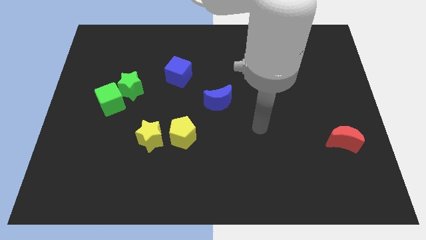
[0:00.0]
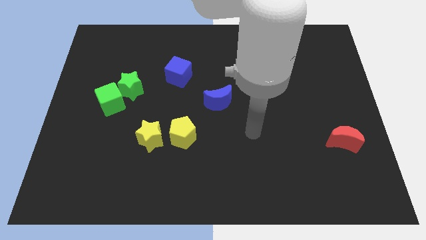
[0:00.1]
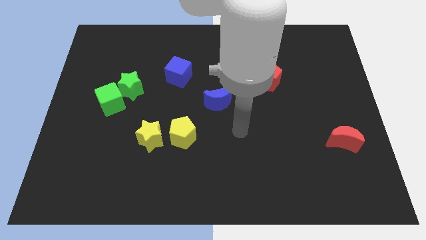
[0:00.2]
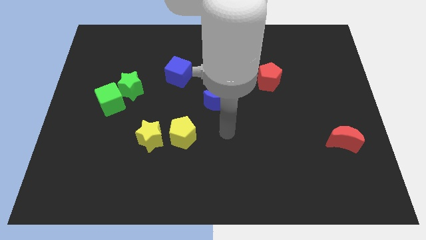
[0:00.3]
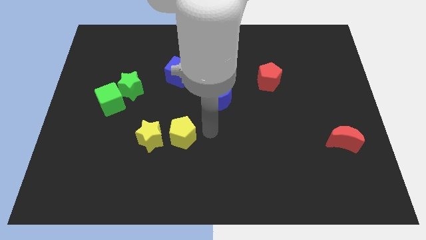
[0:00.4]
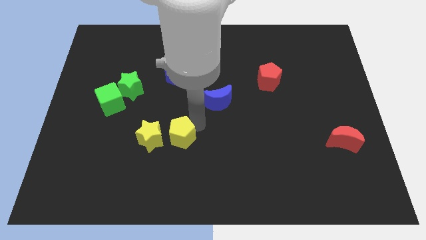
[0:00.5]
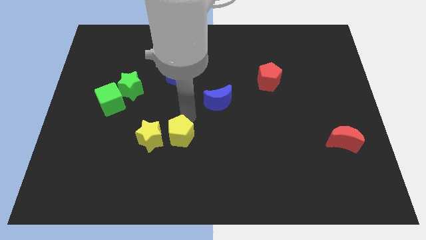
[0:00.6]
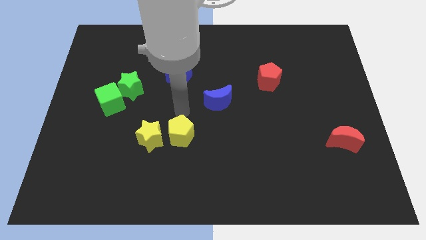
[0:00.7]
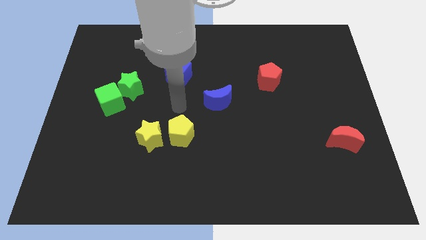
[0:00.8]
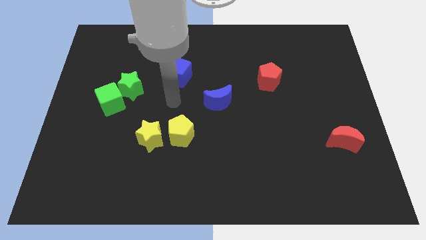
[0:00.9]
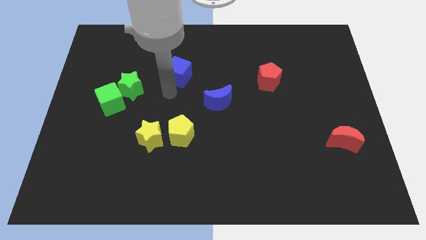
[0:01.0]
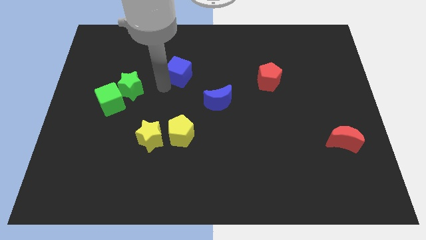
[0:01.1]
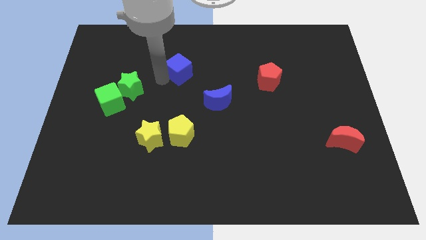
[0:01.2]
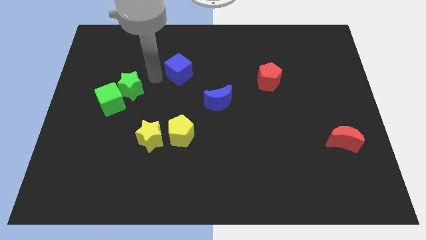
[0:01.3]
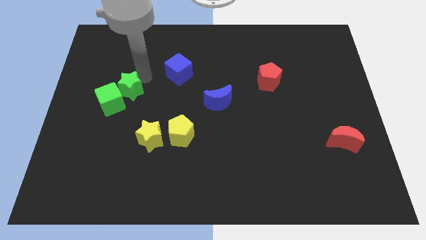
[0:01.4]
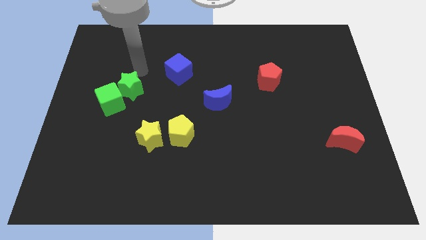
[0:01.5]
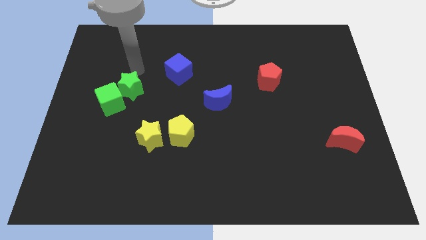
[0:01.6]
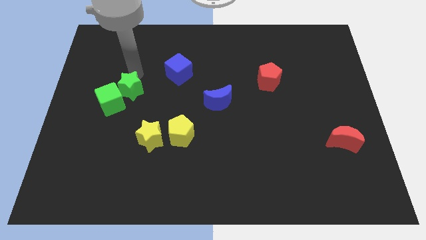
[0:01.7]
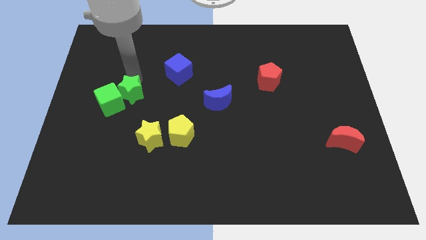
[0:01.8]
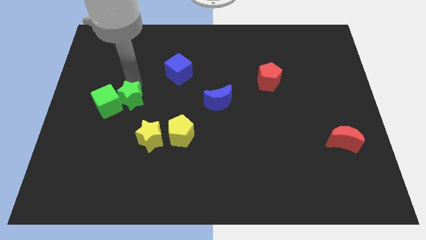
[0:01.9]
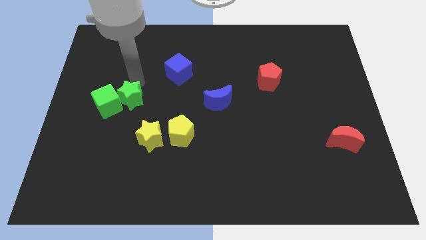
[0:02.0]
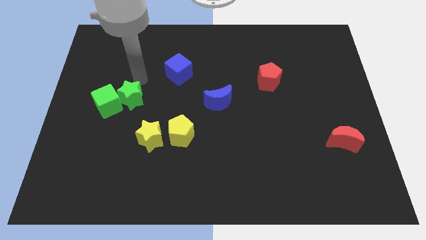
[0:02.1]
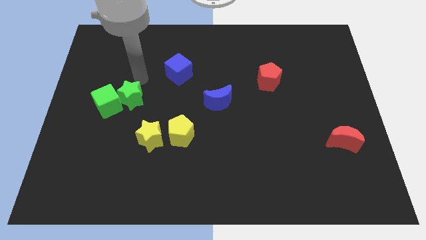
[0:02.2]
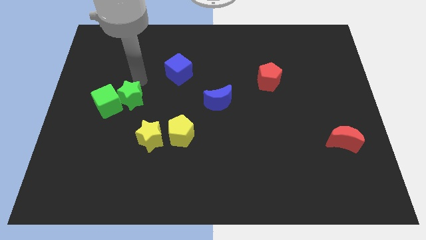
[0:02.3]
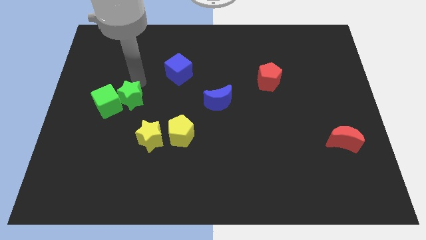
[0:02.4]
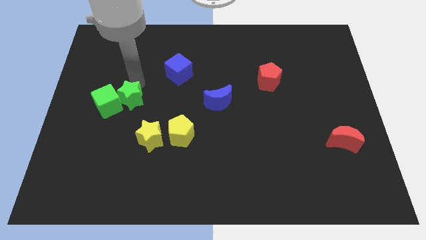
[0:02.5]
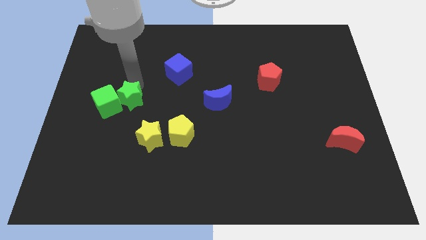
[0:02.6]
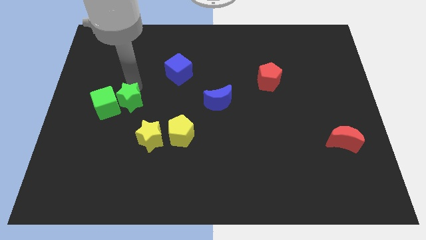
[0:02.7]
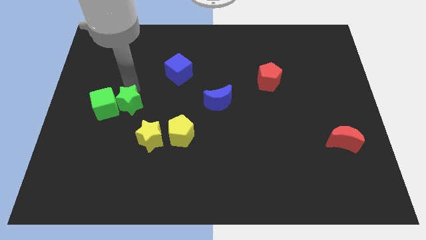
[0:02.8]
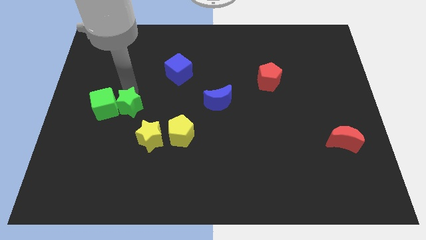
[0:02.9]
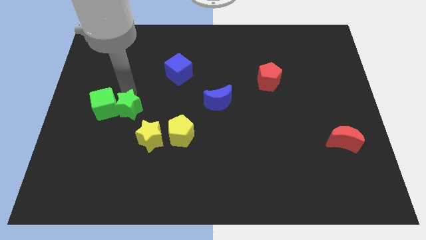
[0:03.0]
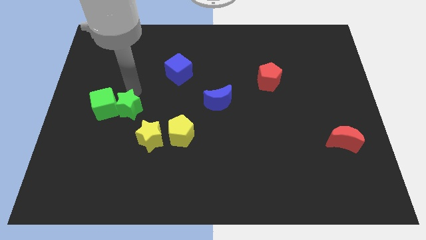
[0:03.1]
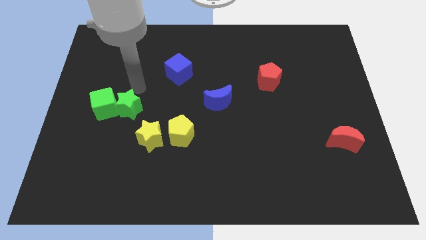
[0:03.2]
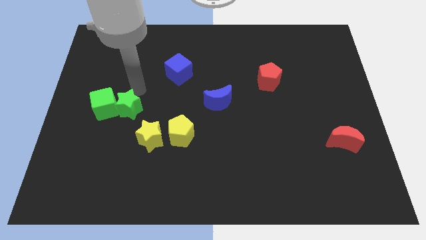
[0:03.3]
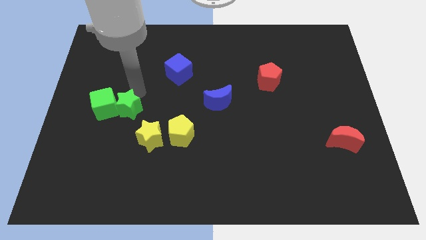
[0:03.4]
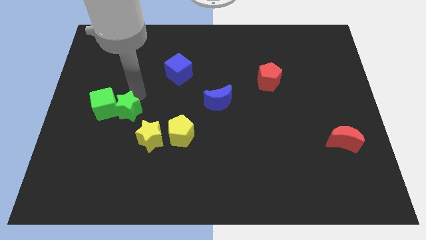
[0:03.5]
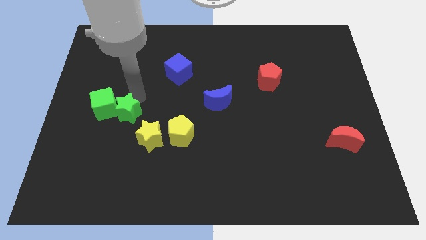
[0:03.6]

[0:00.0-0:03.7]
slightly push the green star downwards

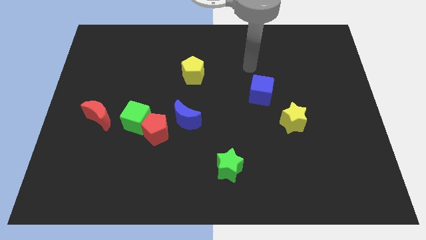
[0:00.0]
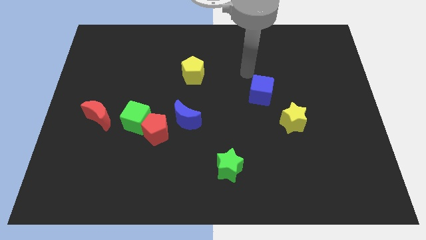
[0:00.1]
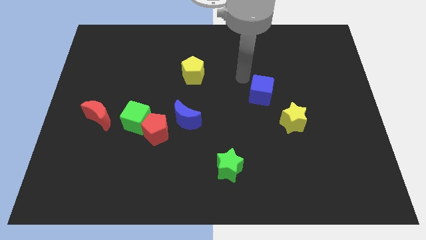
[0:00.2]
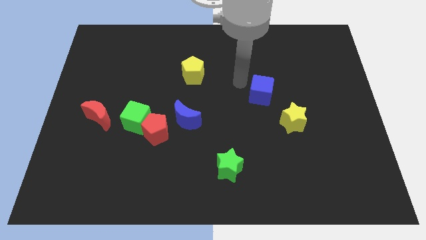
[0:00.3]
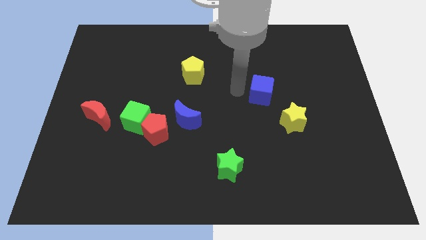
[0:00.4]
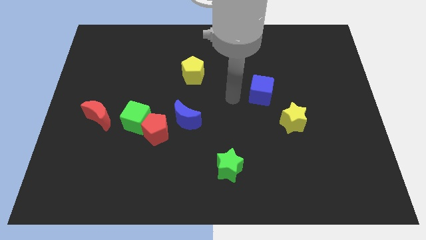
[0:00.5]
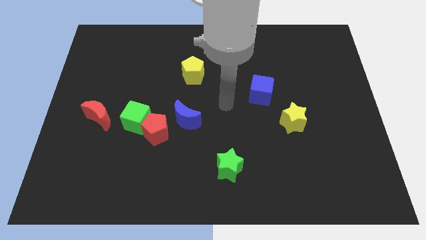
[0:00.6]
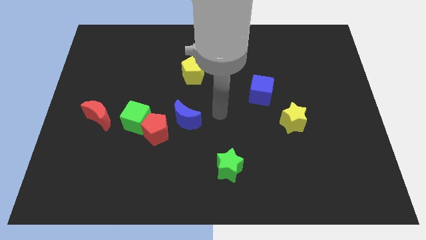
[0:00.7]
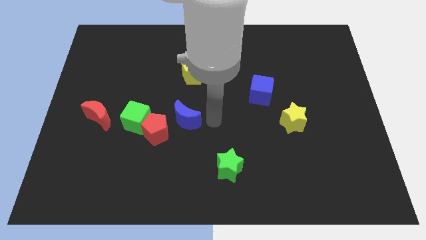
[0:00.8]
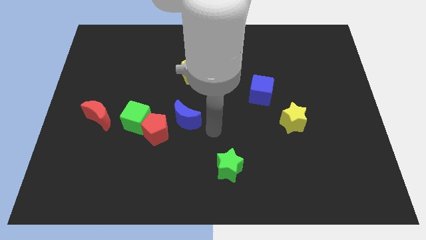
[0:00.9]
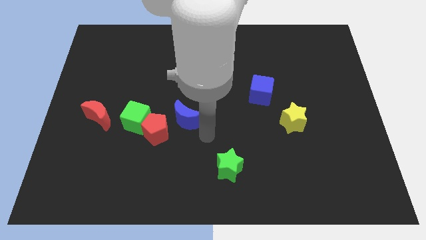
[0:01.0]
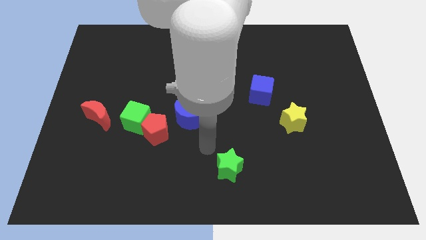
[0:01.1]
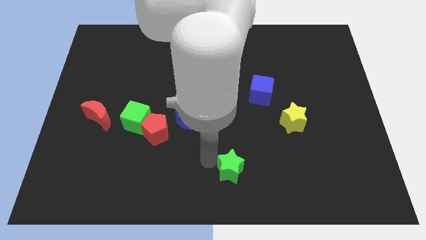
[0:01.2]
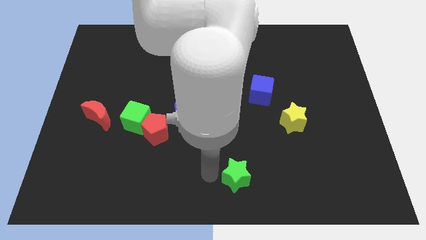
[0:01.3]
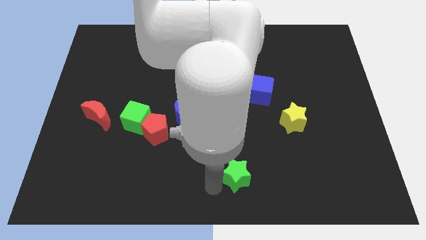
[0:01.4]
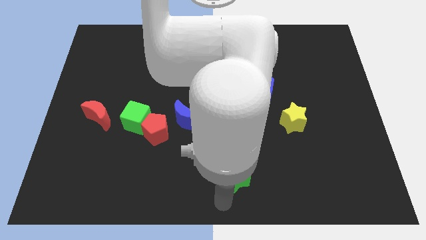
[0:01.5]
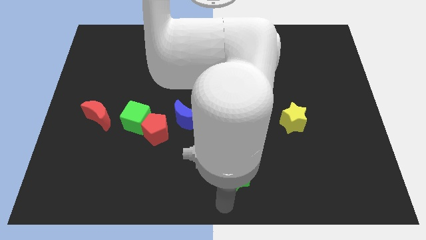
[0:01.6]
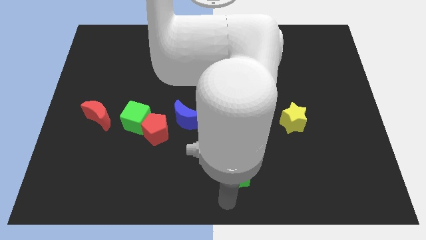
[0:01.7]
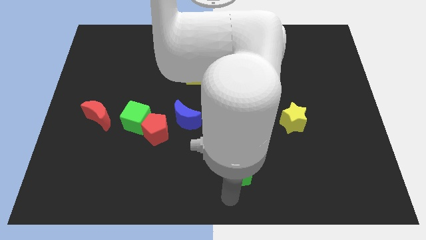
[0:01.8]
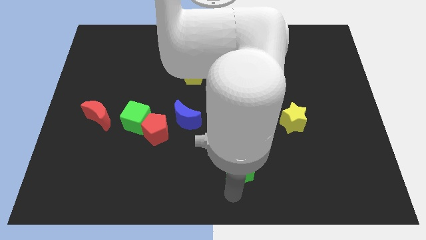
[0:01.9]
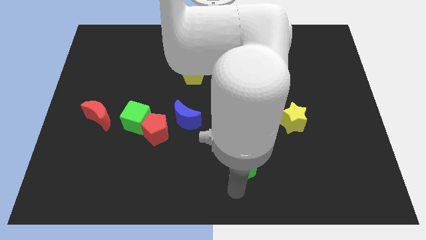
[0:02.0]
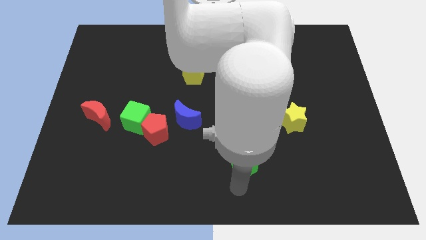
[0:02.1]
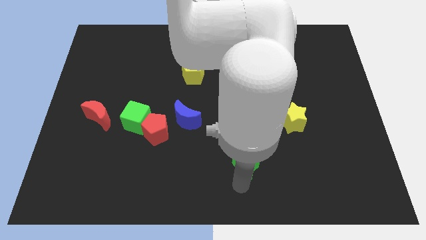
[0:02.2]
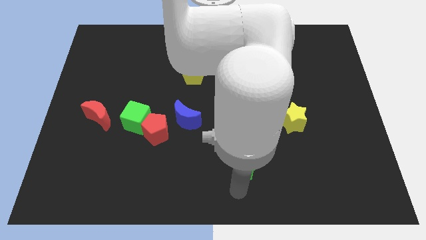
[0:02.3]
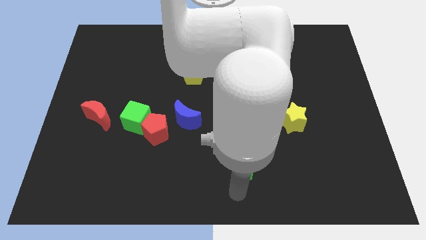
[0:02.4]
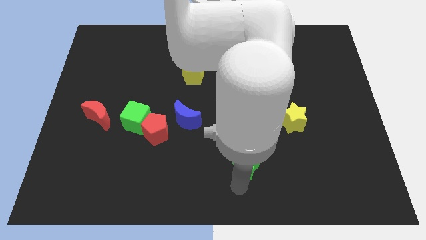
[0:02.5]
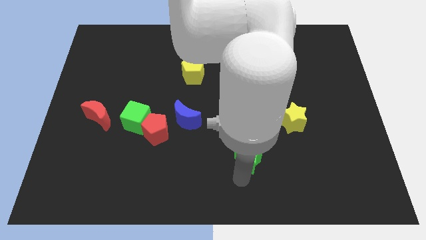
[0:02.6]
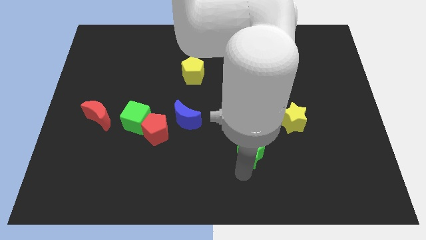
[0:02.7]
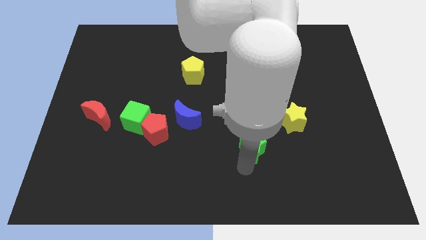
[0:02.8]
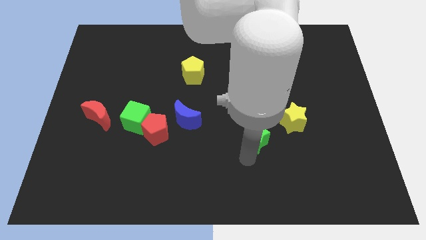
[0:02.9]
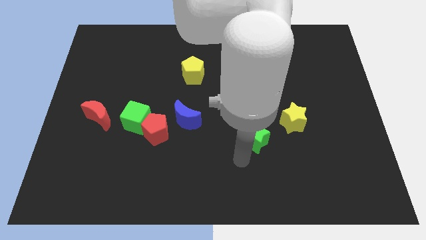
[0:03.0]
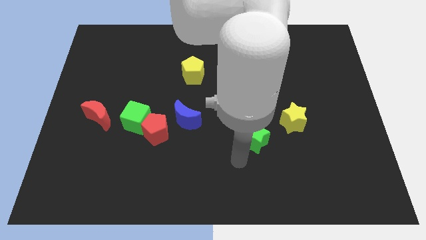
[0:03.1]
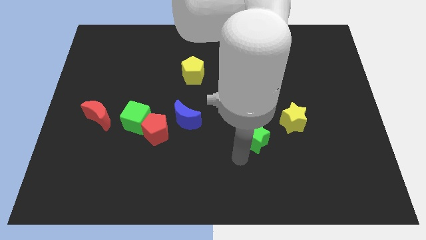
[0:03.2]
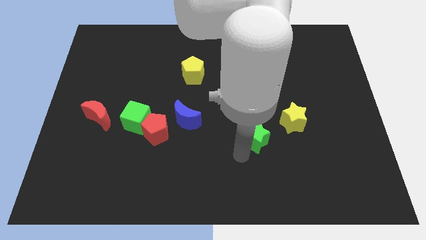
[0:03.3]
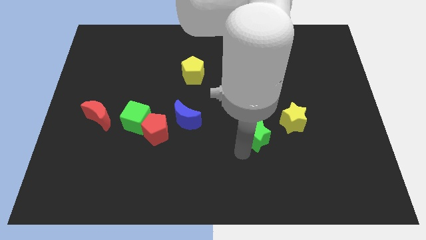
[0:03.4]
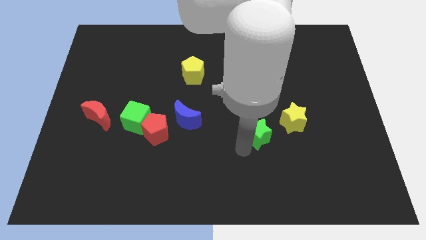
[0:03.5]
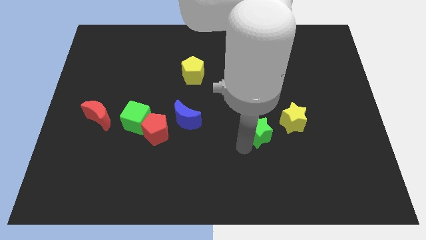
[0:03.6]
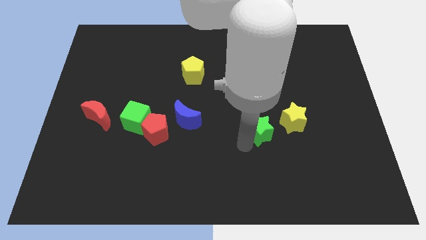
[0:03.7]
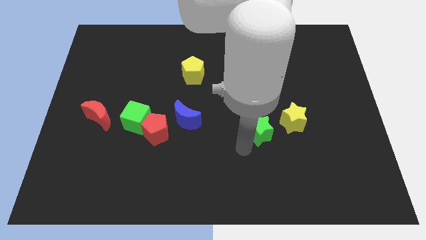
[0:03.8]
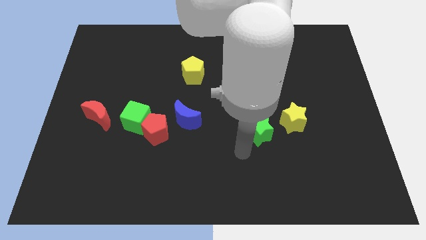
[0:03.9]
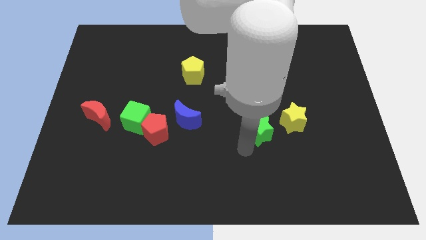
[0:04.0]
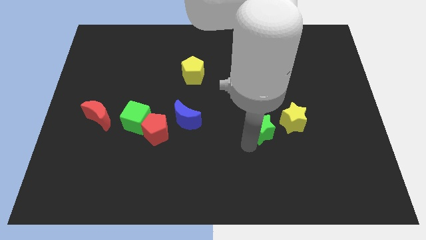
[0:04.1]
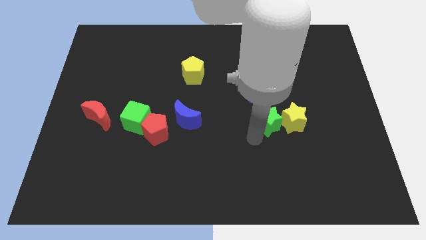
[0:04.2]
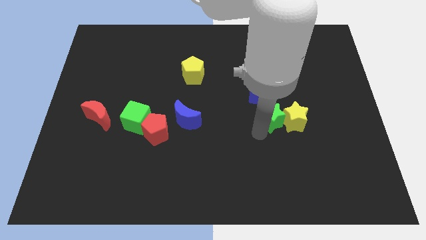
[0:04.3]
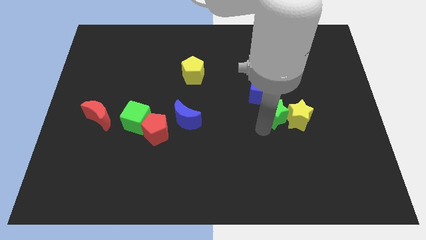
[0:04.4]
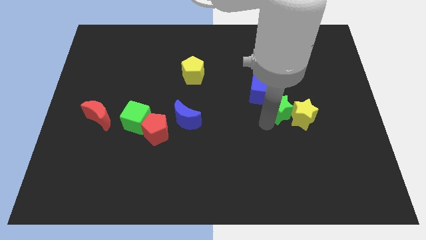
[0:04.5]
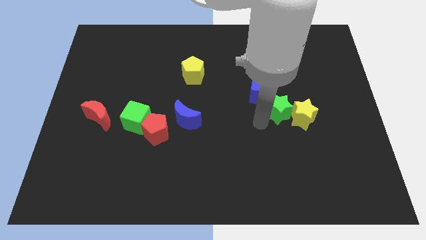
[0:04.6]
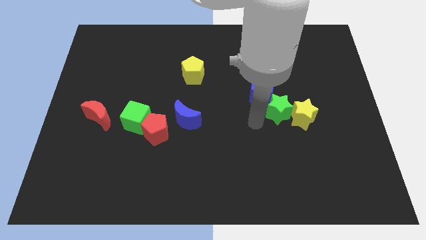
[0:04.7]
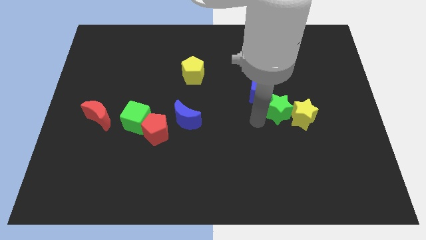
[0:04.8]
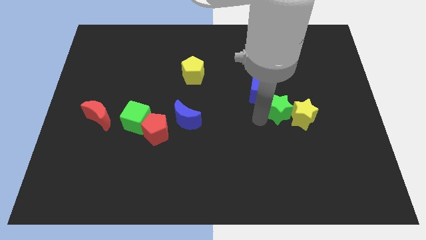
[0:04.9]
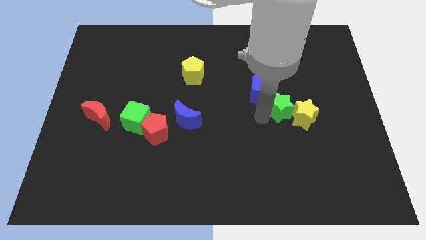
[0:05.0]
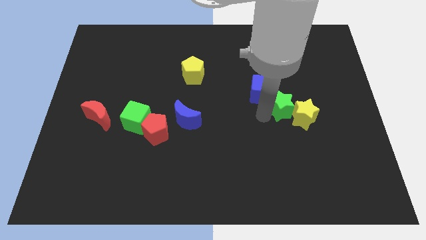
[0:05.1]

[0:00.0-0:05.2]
move the green star up and then to the right
